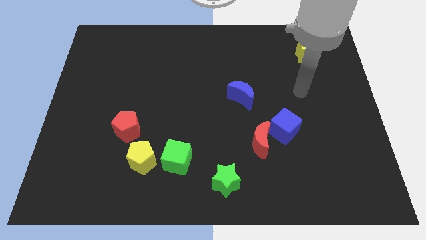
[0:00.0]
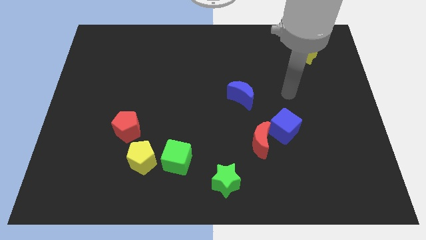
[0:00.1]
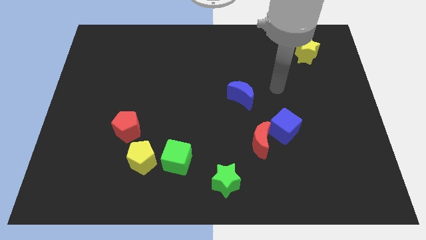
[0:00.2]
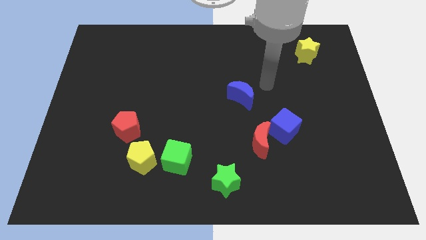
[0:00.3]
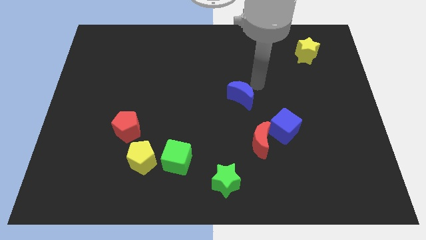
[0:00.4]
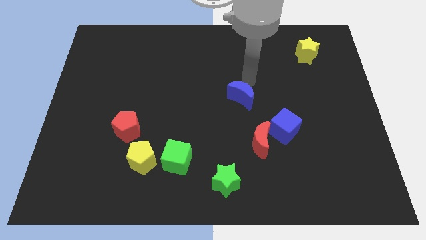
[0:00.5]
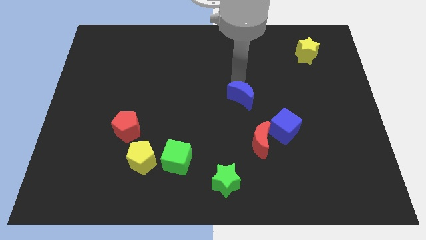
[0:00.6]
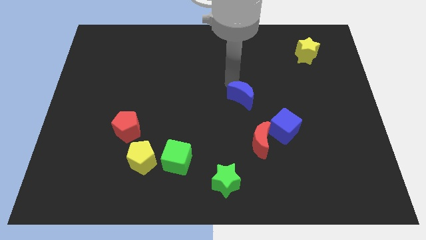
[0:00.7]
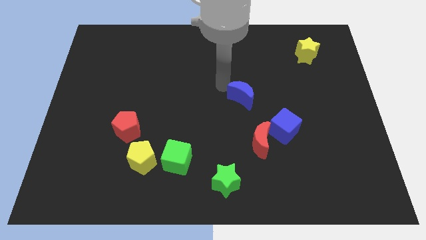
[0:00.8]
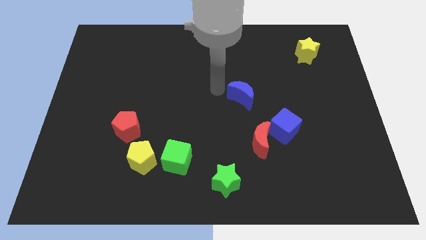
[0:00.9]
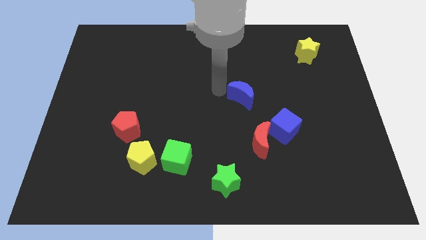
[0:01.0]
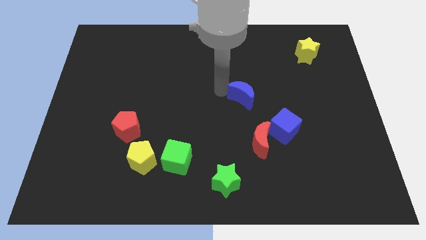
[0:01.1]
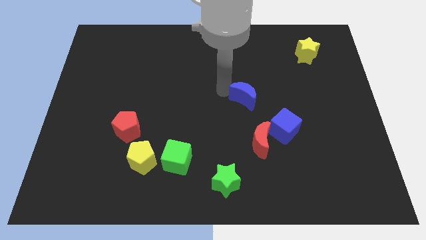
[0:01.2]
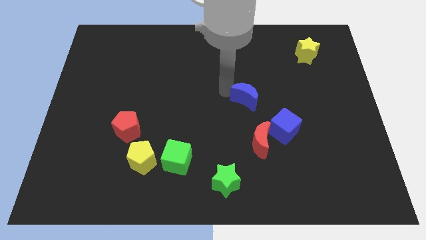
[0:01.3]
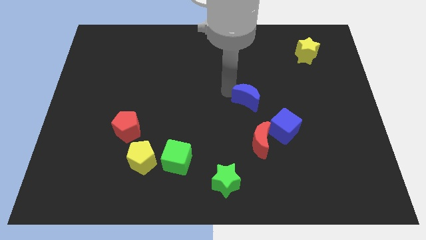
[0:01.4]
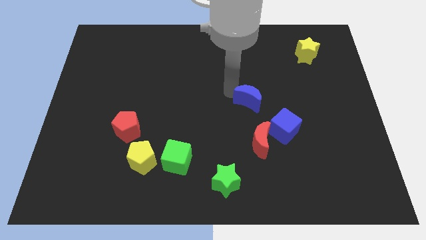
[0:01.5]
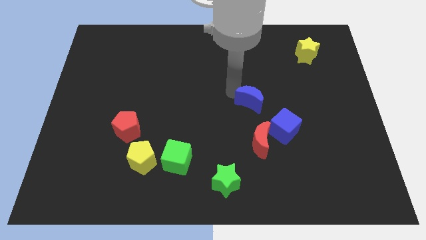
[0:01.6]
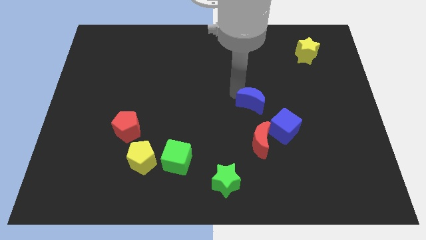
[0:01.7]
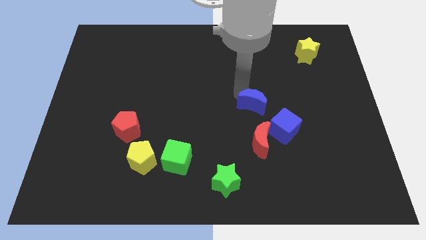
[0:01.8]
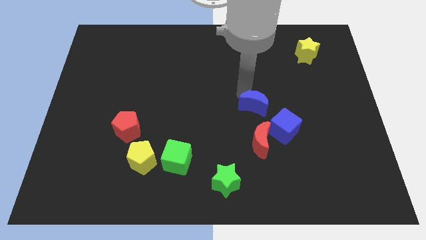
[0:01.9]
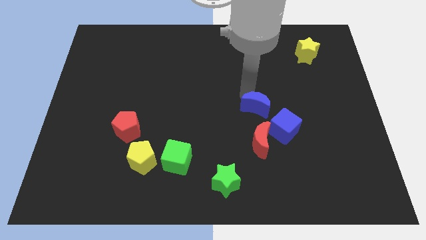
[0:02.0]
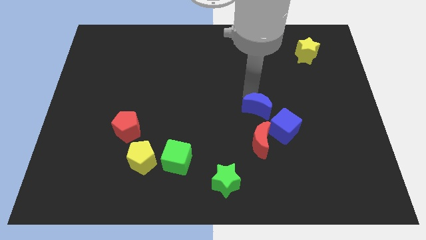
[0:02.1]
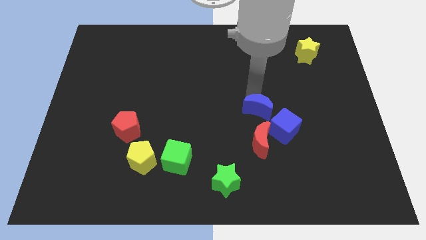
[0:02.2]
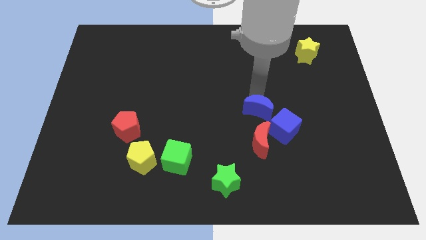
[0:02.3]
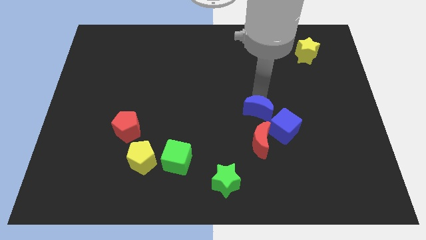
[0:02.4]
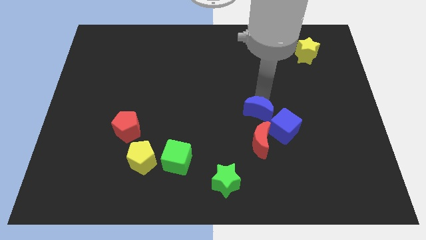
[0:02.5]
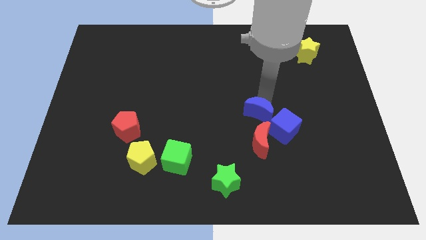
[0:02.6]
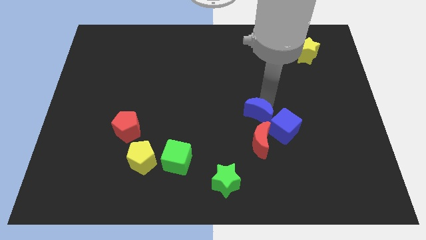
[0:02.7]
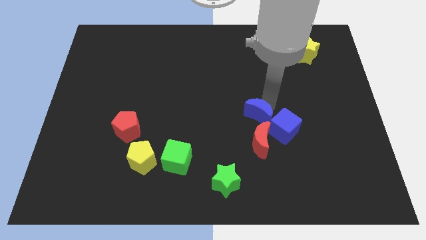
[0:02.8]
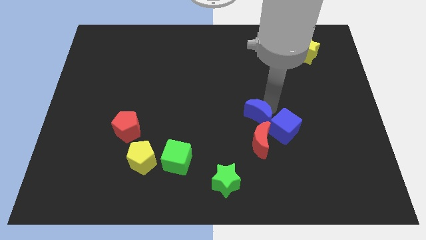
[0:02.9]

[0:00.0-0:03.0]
slightly push the blue moon down and then to the right

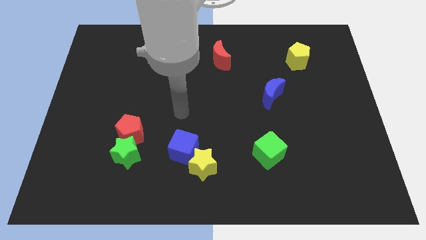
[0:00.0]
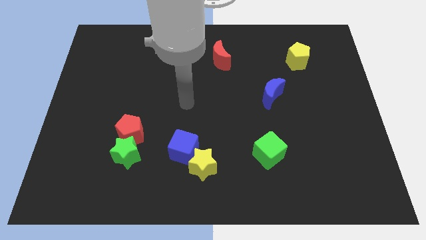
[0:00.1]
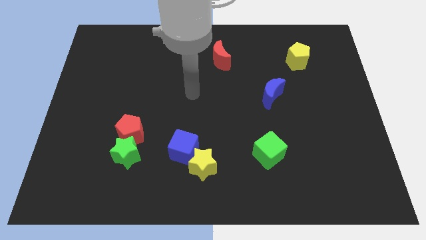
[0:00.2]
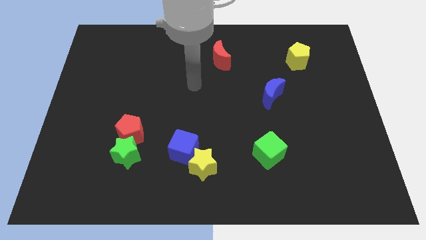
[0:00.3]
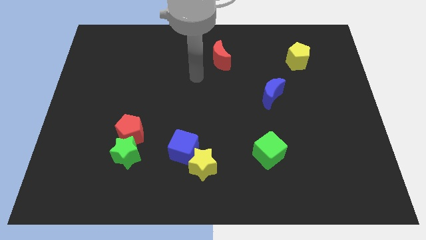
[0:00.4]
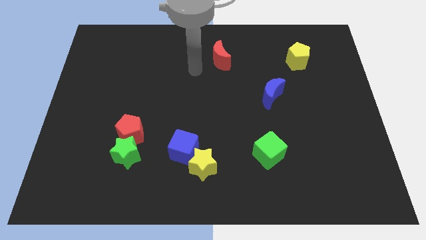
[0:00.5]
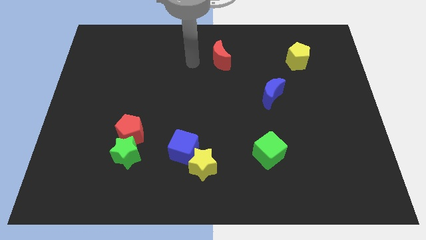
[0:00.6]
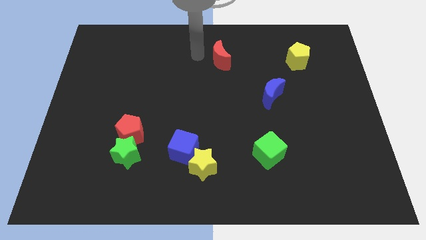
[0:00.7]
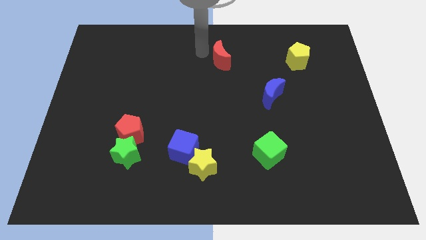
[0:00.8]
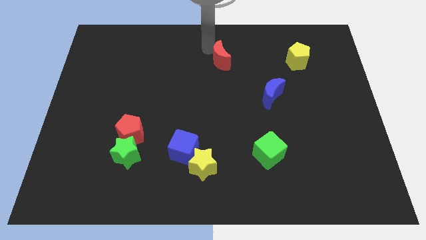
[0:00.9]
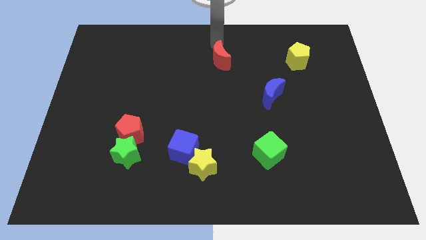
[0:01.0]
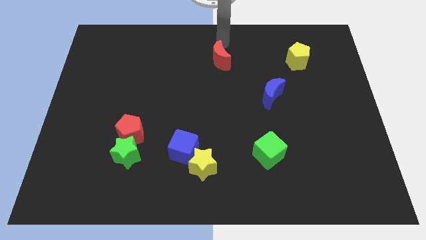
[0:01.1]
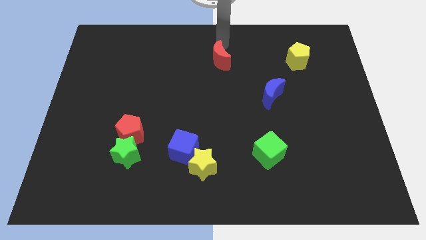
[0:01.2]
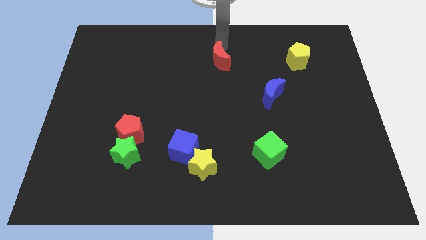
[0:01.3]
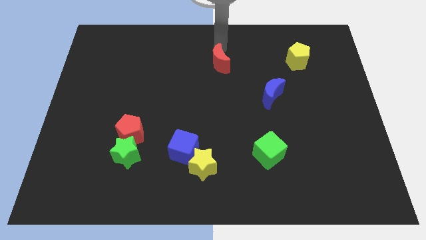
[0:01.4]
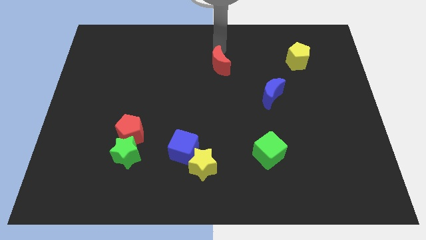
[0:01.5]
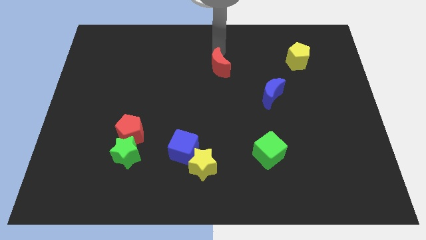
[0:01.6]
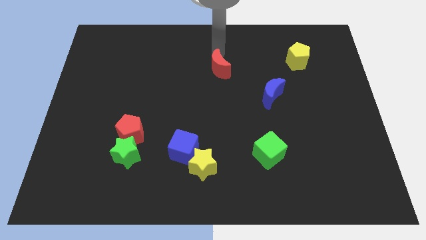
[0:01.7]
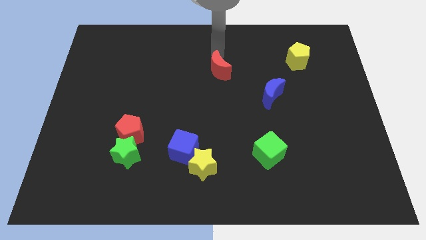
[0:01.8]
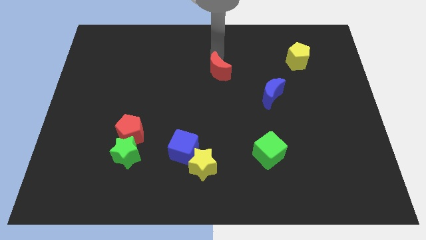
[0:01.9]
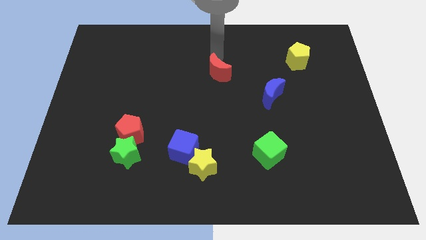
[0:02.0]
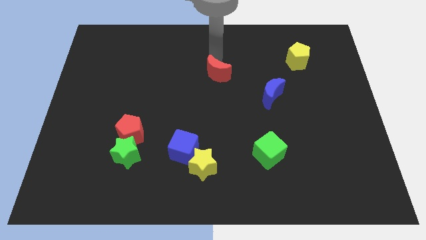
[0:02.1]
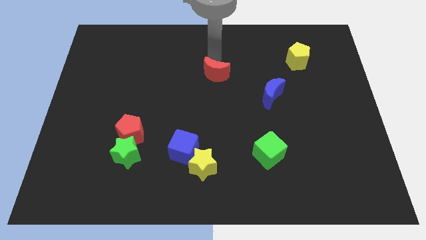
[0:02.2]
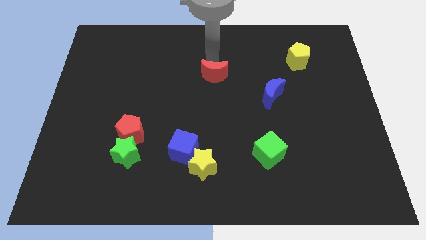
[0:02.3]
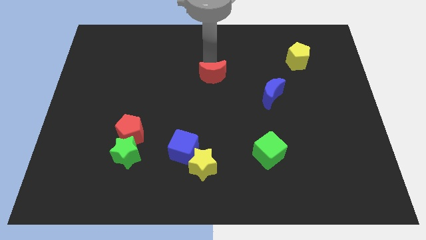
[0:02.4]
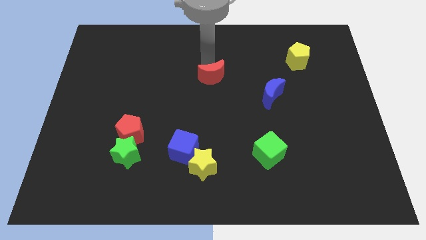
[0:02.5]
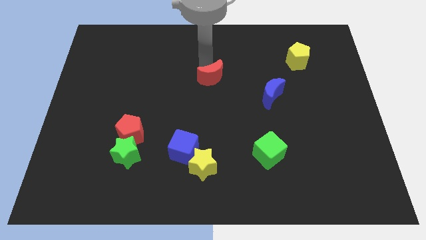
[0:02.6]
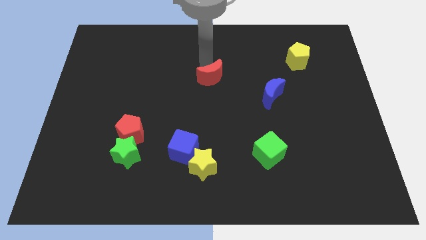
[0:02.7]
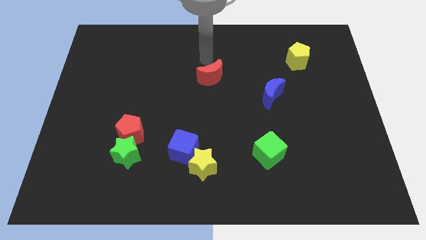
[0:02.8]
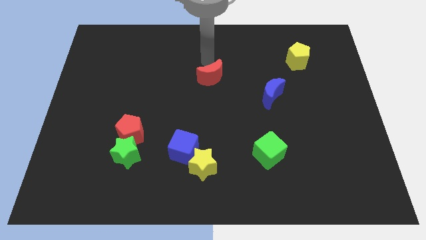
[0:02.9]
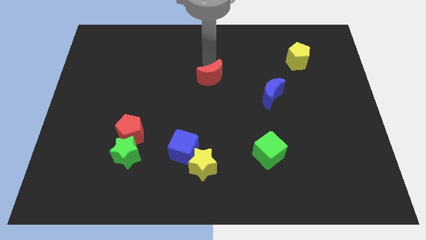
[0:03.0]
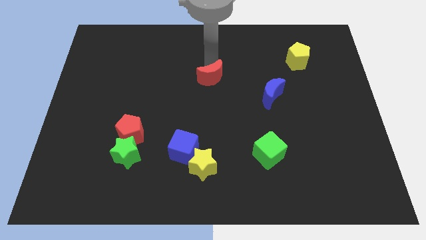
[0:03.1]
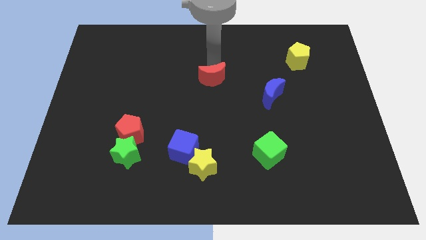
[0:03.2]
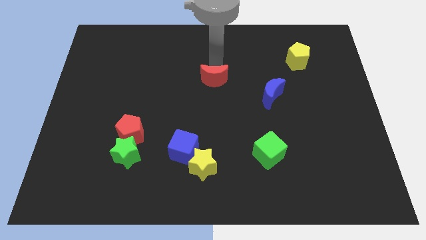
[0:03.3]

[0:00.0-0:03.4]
move the red moon a little down

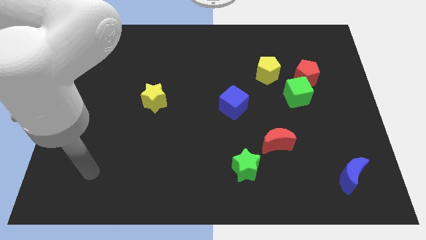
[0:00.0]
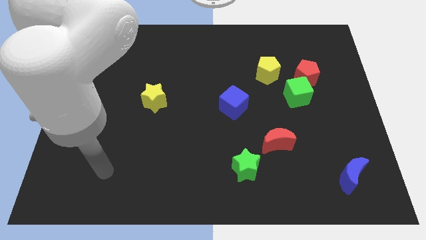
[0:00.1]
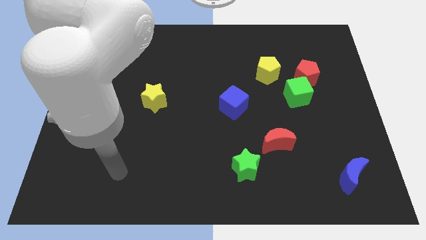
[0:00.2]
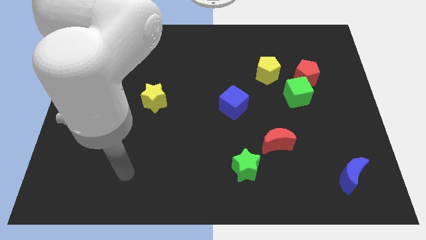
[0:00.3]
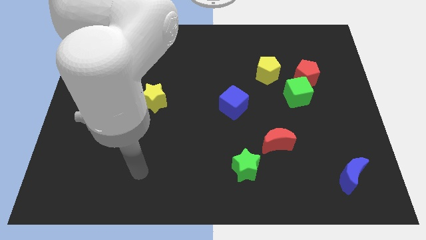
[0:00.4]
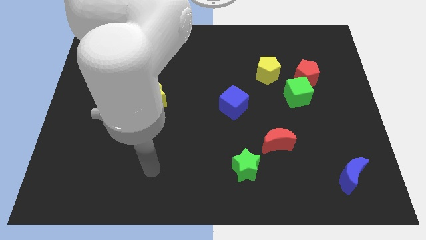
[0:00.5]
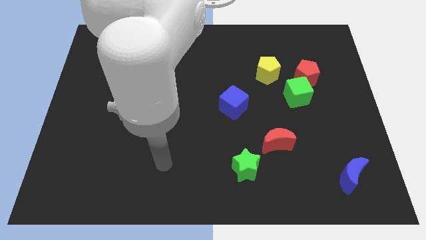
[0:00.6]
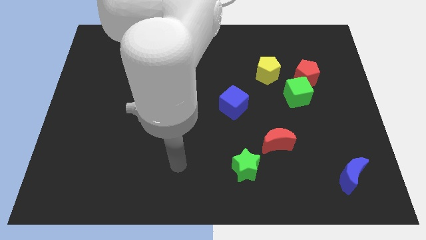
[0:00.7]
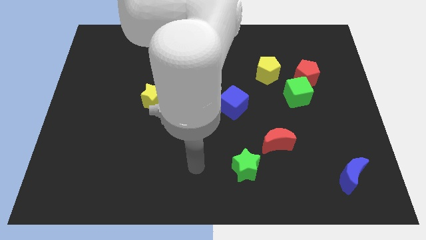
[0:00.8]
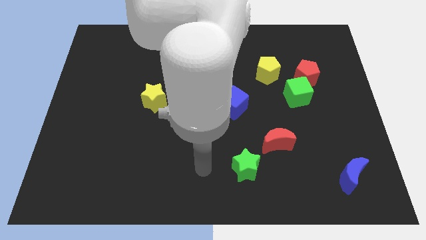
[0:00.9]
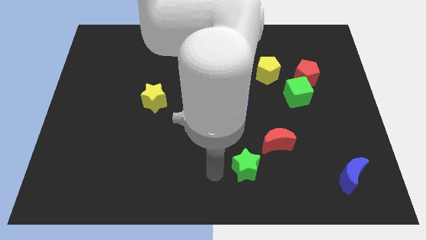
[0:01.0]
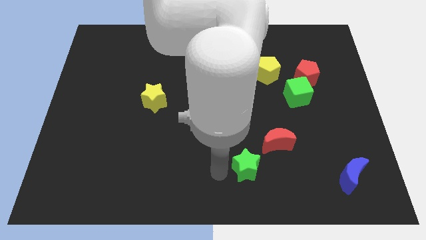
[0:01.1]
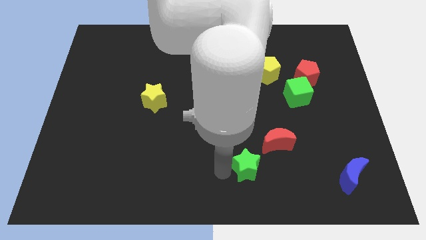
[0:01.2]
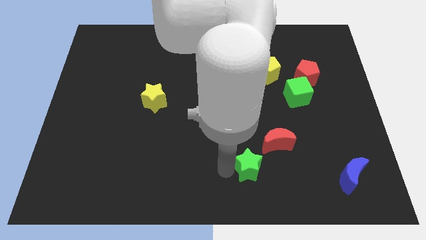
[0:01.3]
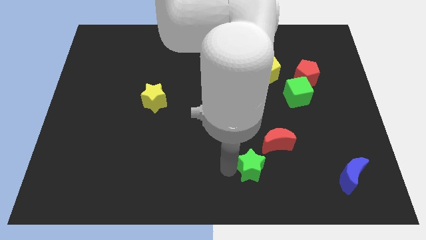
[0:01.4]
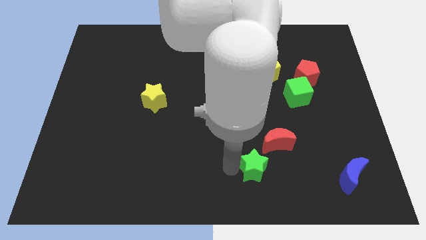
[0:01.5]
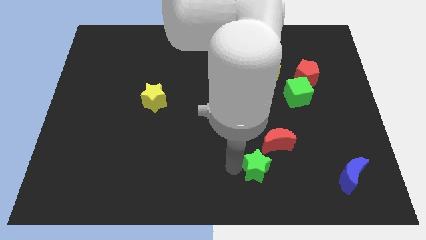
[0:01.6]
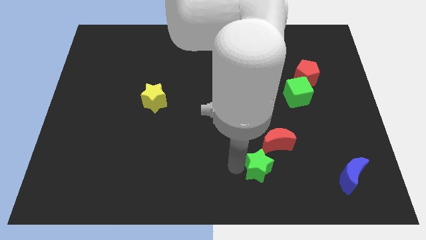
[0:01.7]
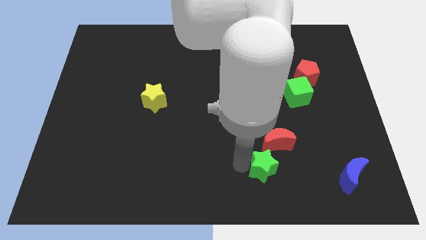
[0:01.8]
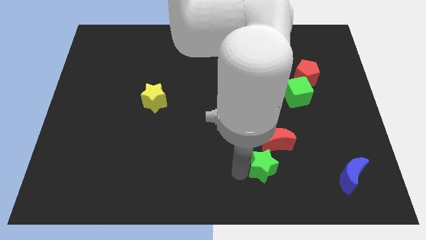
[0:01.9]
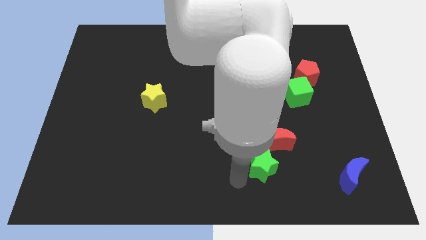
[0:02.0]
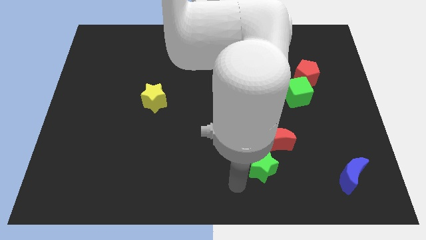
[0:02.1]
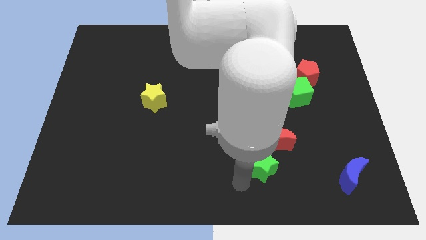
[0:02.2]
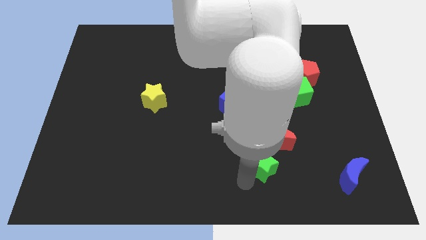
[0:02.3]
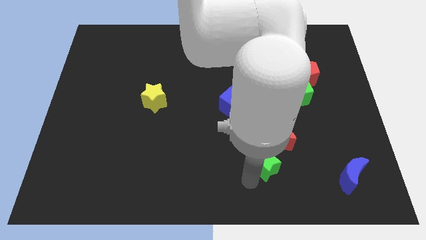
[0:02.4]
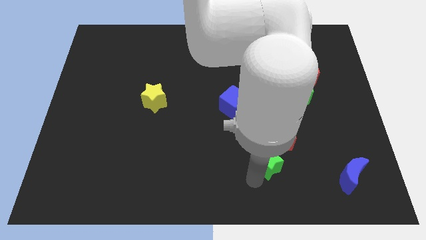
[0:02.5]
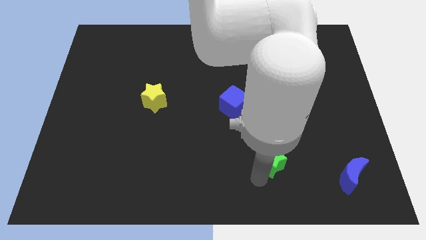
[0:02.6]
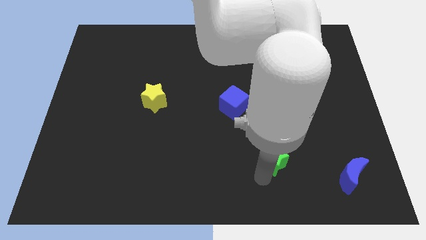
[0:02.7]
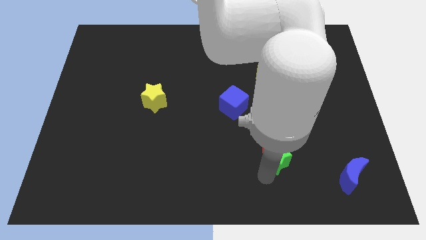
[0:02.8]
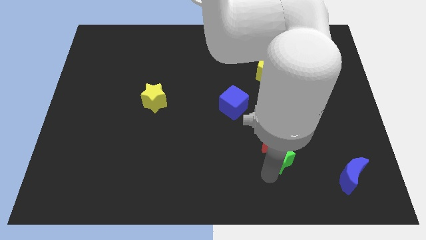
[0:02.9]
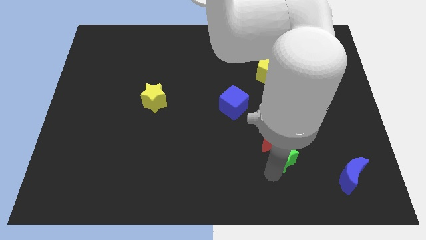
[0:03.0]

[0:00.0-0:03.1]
move the green star a little bit up and right
